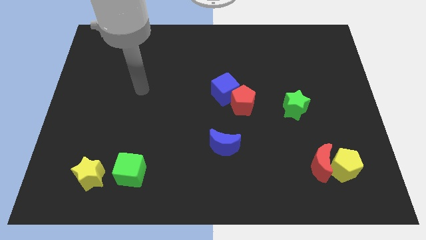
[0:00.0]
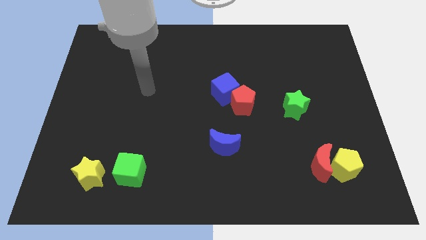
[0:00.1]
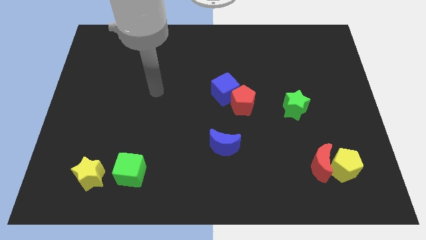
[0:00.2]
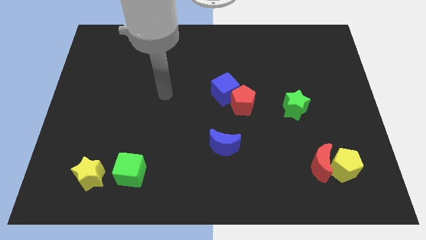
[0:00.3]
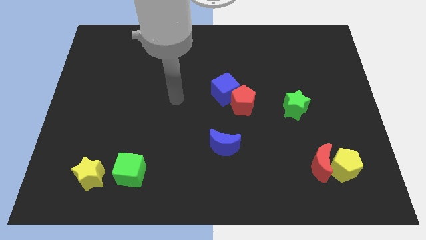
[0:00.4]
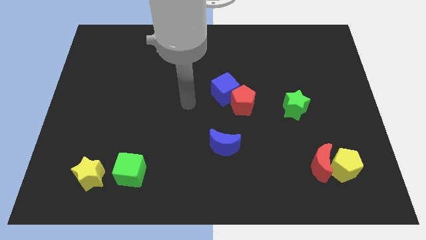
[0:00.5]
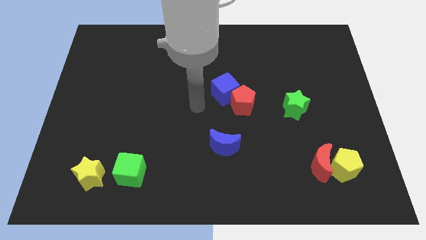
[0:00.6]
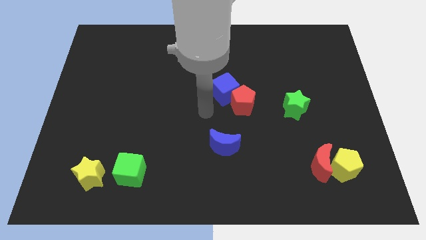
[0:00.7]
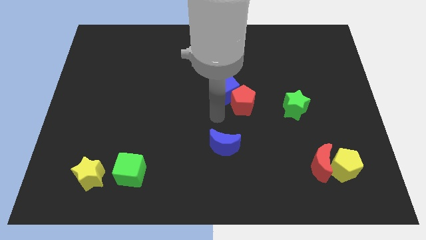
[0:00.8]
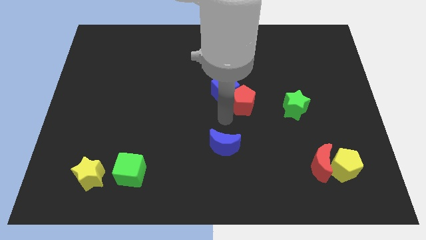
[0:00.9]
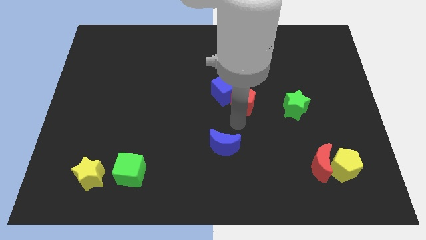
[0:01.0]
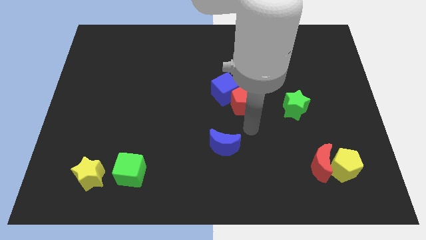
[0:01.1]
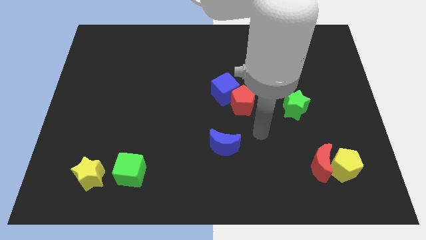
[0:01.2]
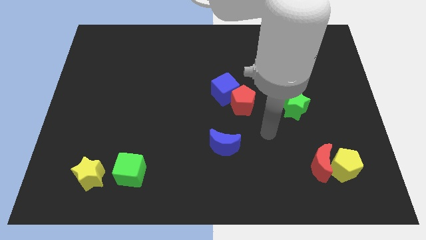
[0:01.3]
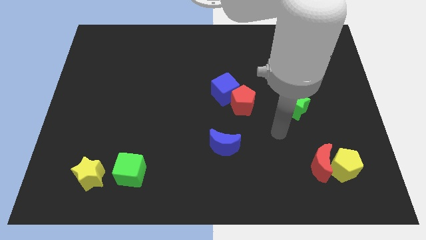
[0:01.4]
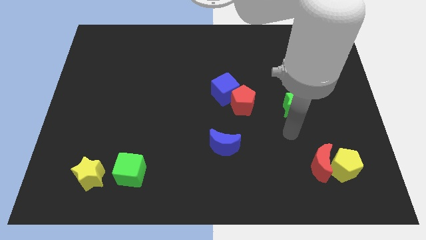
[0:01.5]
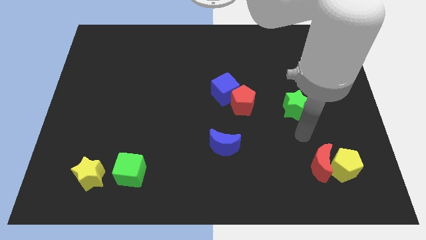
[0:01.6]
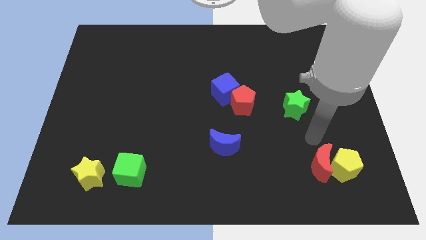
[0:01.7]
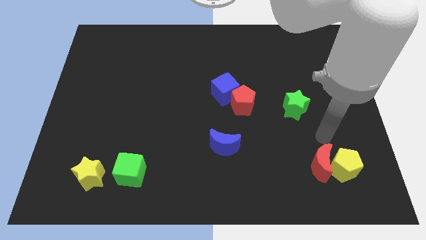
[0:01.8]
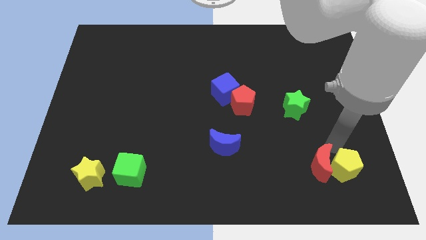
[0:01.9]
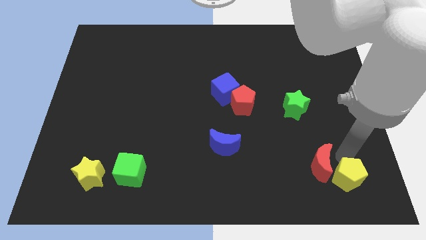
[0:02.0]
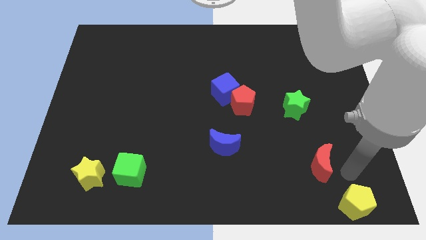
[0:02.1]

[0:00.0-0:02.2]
move the red moon away from the yellow pentagon

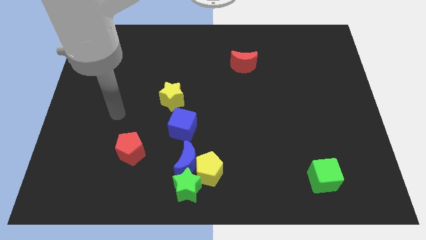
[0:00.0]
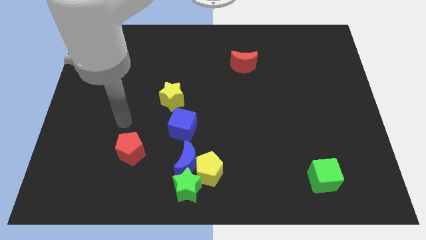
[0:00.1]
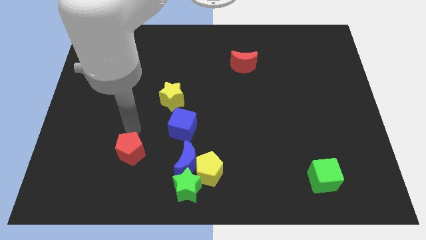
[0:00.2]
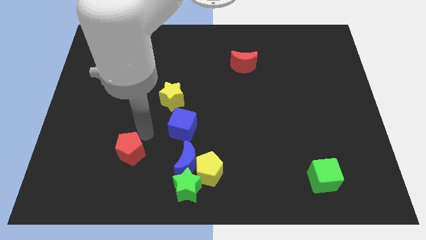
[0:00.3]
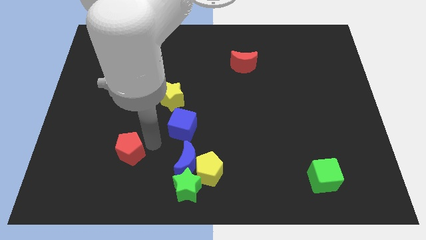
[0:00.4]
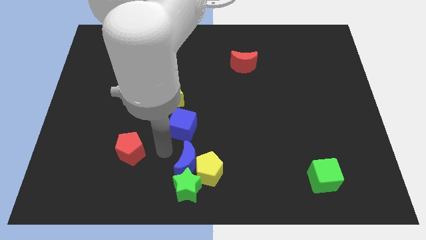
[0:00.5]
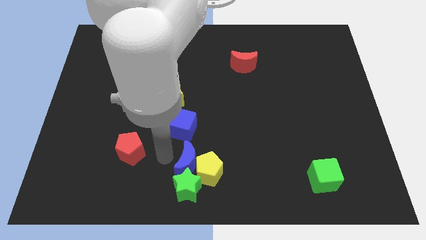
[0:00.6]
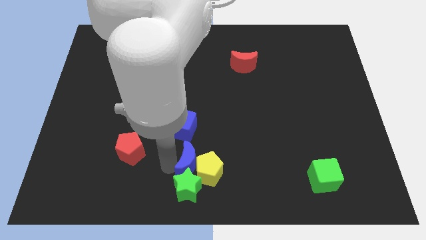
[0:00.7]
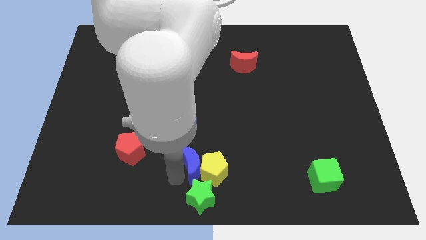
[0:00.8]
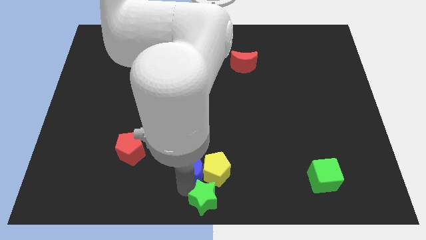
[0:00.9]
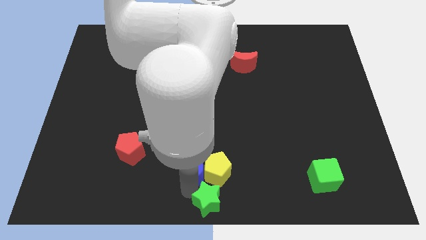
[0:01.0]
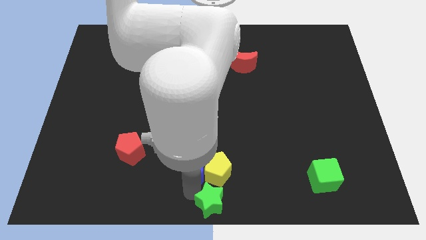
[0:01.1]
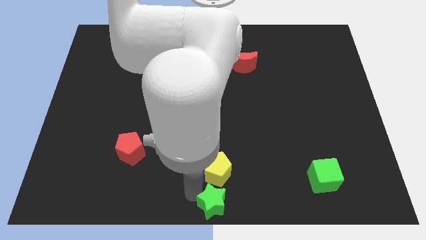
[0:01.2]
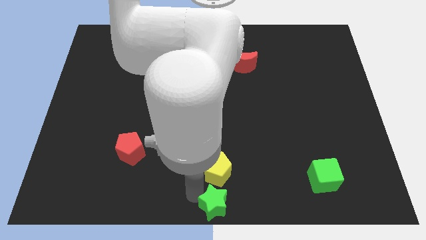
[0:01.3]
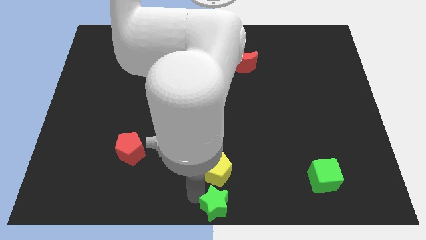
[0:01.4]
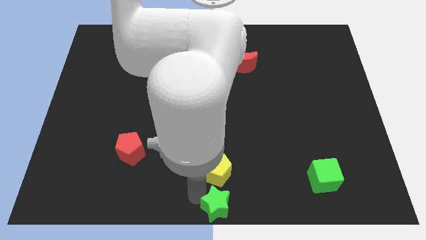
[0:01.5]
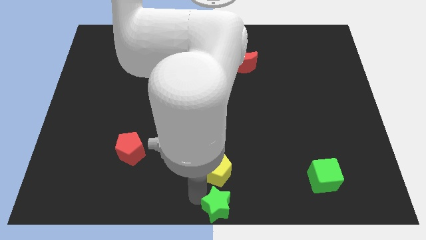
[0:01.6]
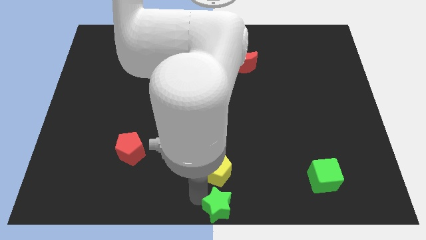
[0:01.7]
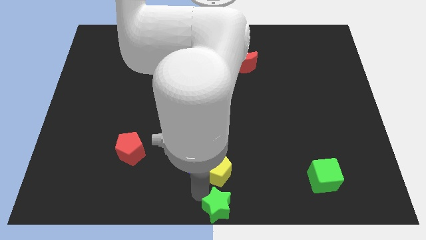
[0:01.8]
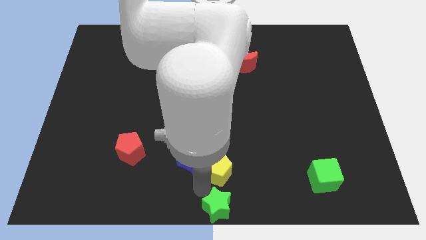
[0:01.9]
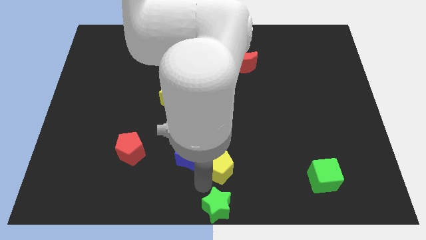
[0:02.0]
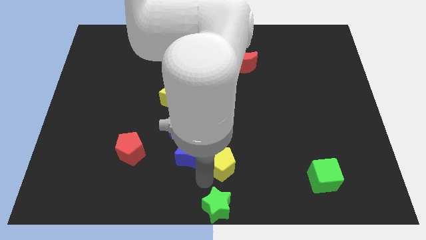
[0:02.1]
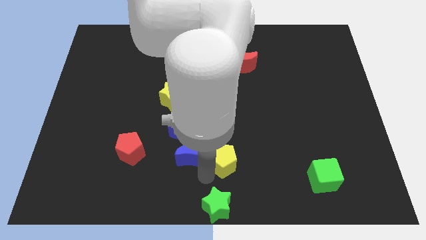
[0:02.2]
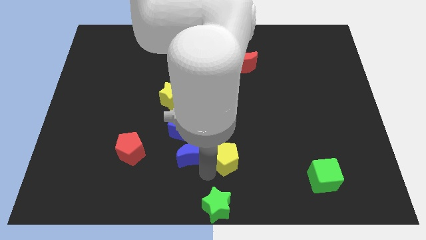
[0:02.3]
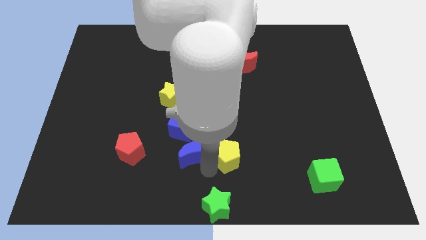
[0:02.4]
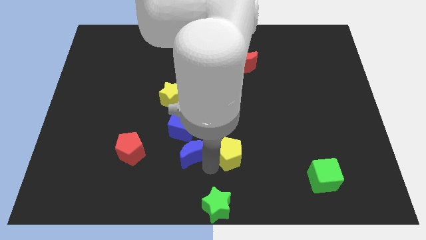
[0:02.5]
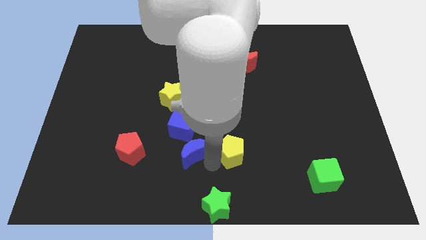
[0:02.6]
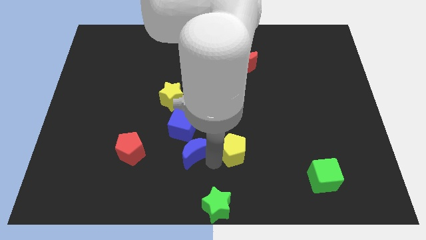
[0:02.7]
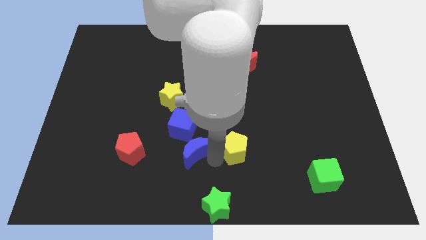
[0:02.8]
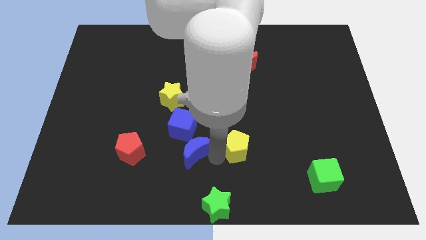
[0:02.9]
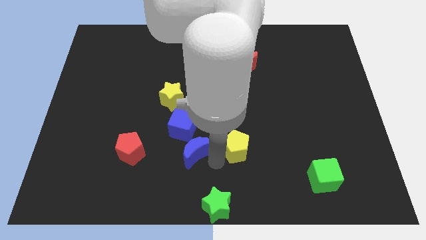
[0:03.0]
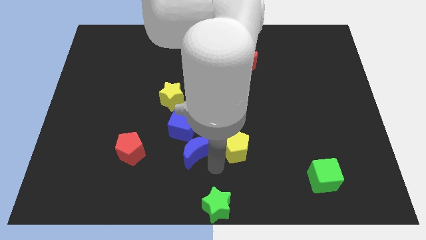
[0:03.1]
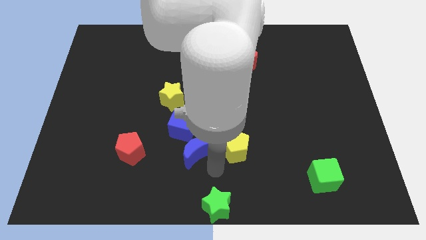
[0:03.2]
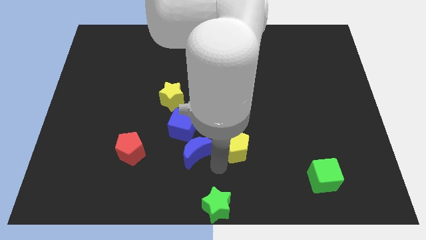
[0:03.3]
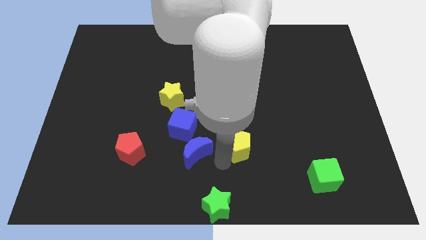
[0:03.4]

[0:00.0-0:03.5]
pull the yellow pentagon apart from the blue moon and green star

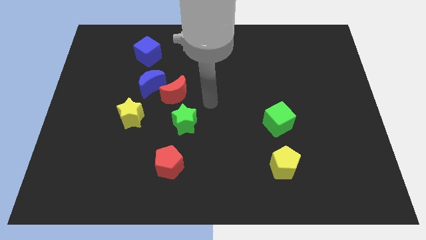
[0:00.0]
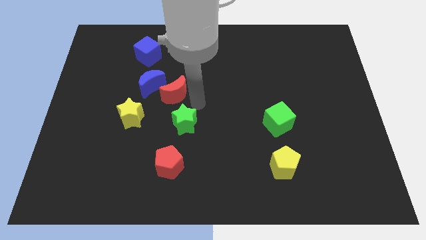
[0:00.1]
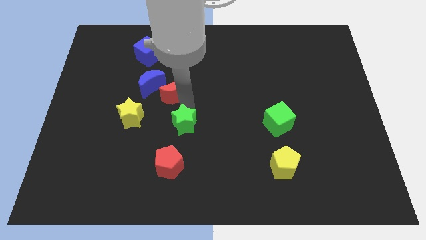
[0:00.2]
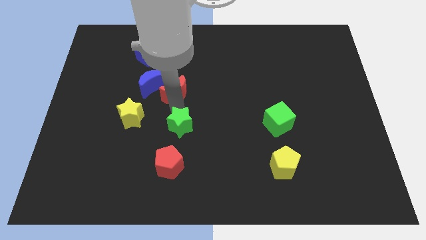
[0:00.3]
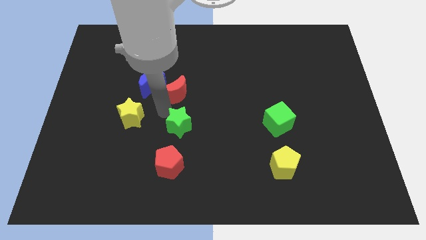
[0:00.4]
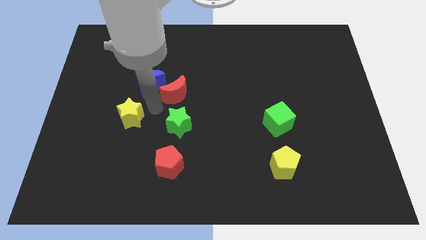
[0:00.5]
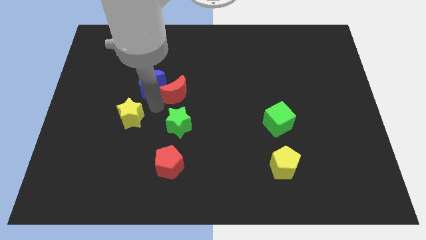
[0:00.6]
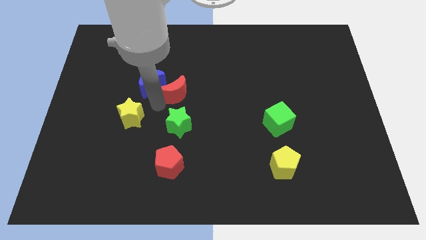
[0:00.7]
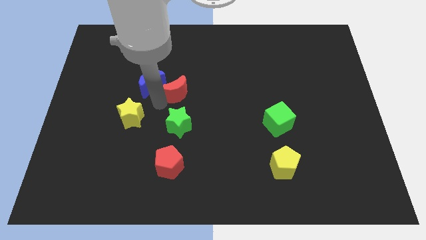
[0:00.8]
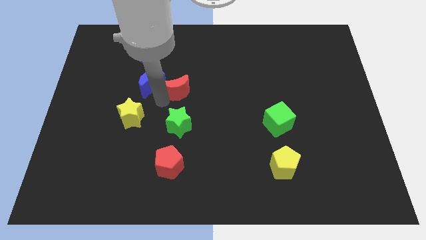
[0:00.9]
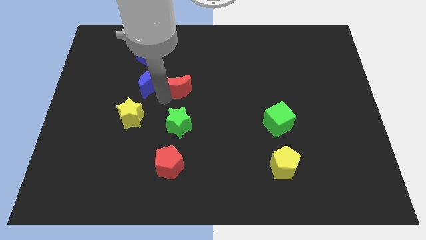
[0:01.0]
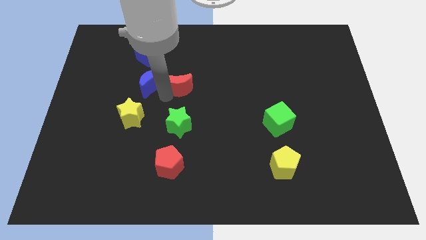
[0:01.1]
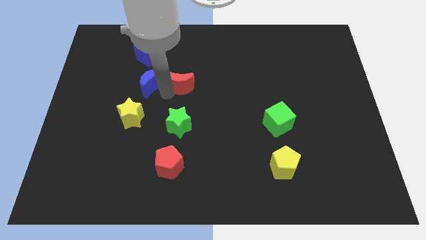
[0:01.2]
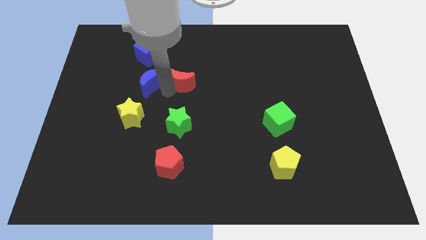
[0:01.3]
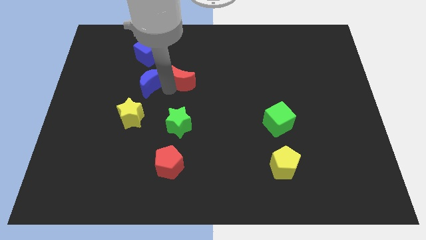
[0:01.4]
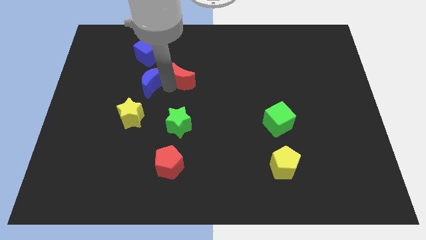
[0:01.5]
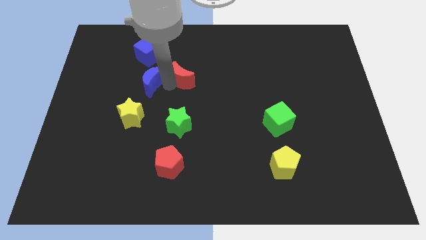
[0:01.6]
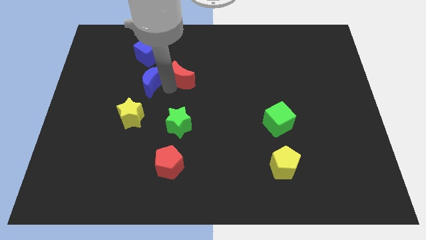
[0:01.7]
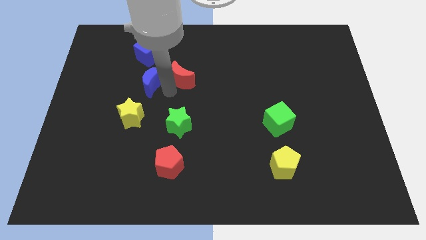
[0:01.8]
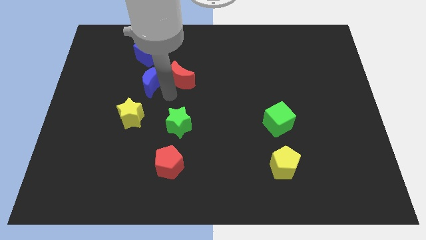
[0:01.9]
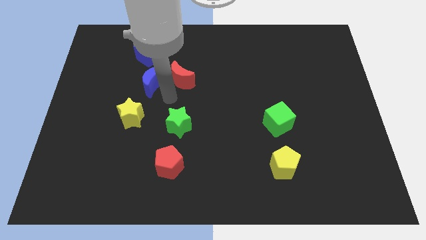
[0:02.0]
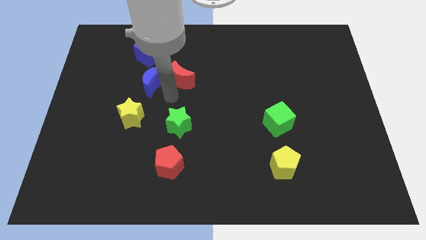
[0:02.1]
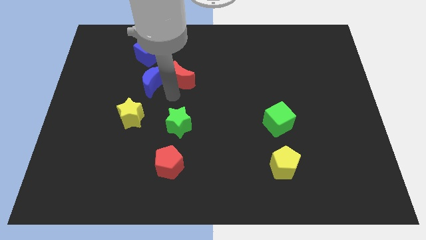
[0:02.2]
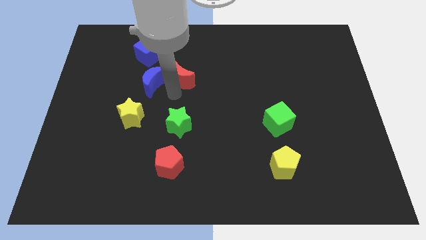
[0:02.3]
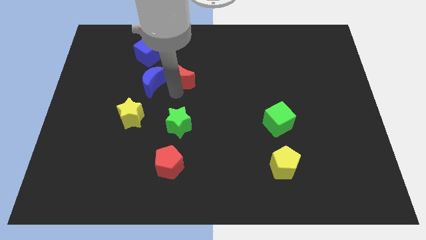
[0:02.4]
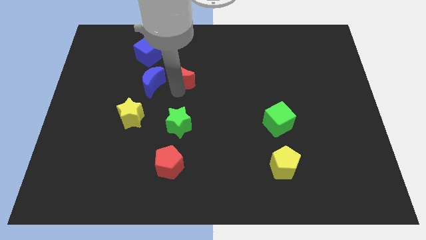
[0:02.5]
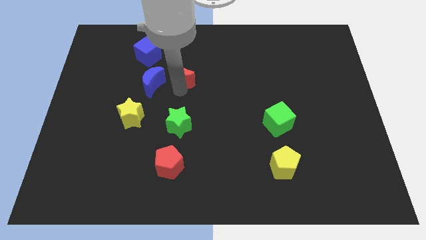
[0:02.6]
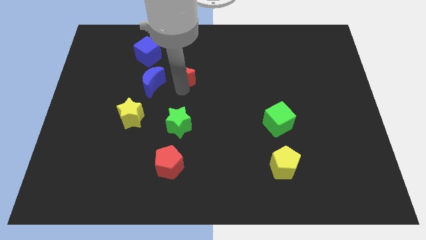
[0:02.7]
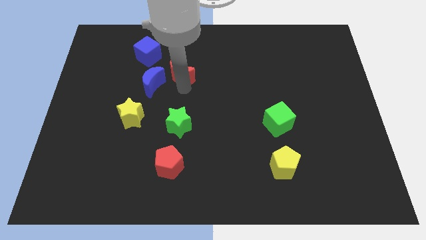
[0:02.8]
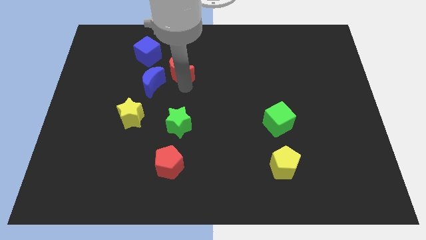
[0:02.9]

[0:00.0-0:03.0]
separate the red moon from the blue moon and green star

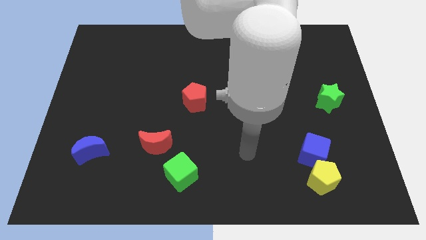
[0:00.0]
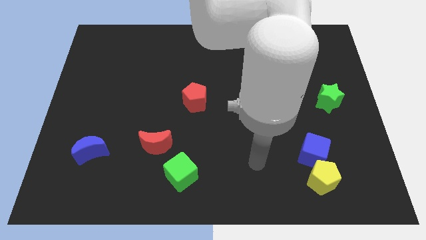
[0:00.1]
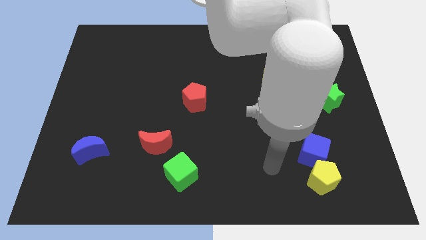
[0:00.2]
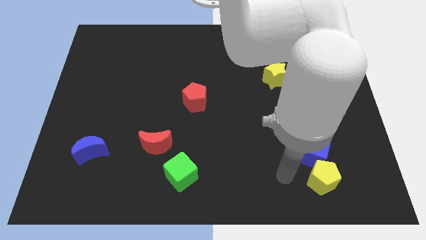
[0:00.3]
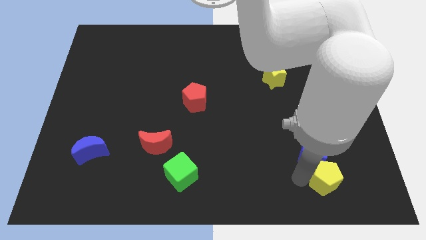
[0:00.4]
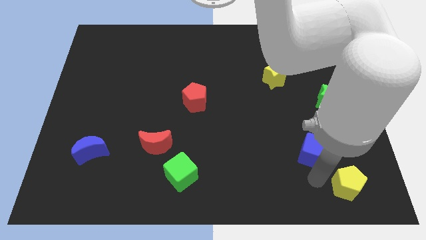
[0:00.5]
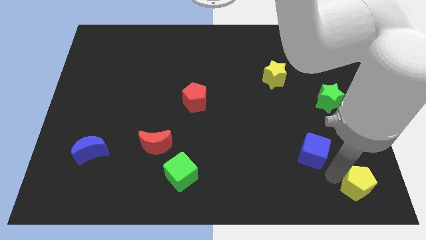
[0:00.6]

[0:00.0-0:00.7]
move the blue cube away from the yellow pentagon
